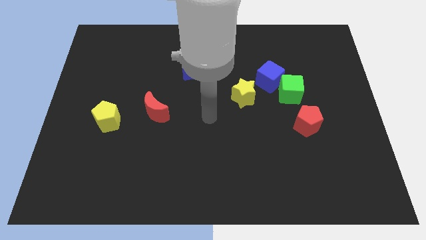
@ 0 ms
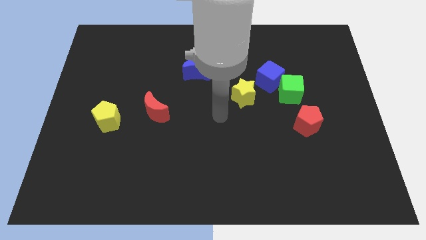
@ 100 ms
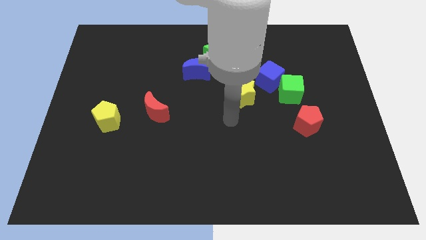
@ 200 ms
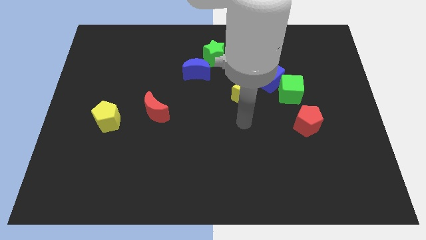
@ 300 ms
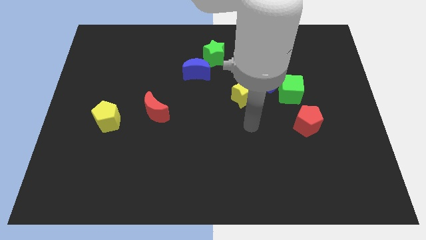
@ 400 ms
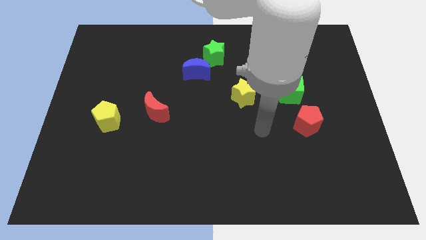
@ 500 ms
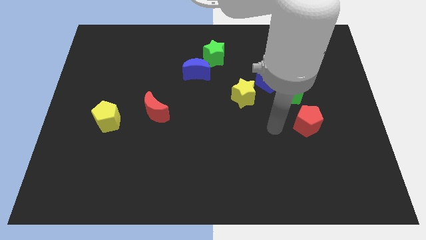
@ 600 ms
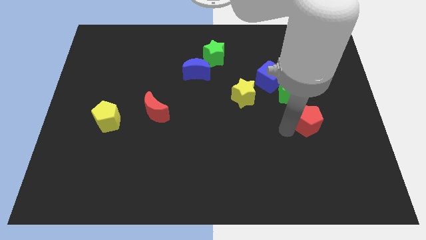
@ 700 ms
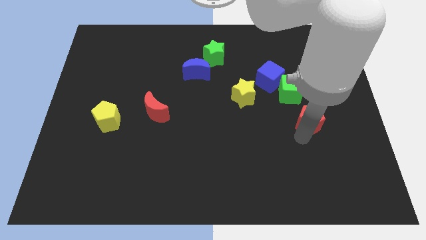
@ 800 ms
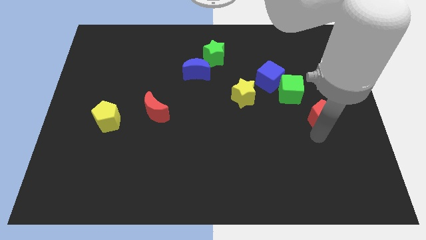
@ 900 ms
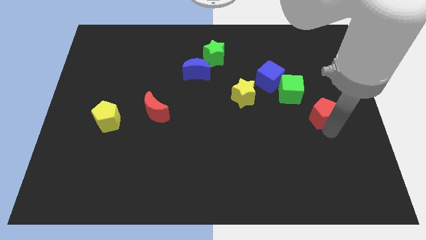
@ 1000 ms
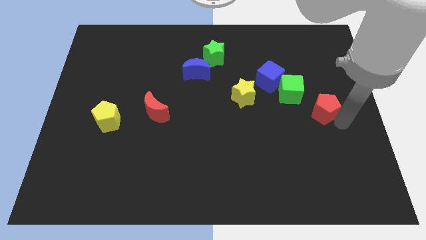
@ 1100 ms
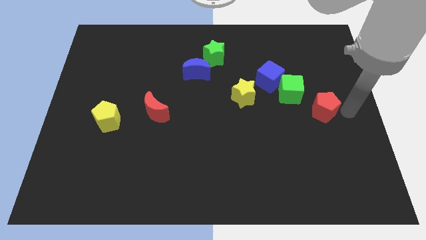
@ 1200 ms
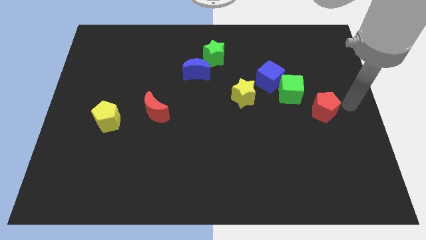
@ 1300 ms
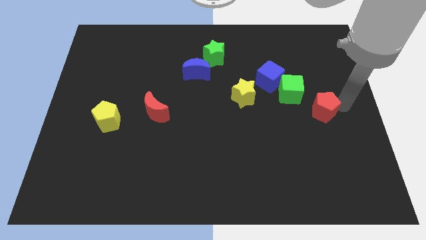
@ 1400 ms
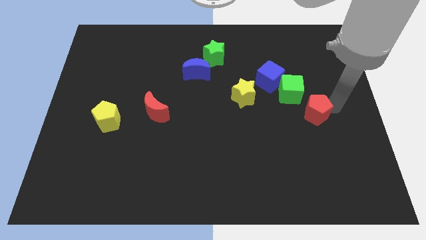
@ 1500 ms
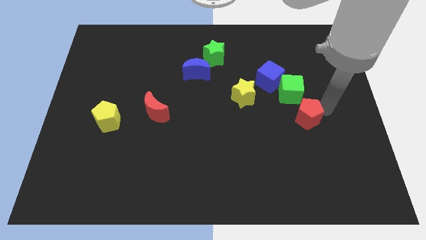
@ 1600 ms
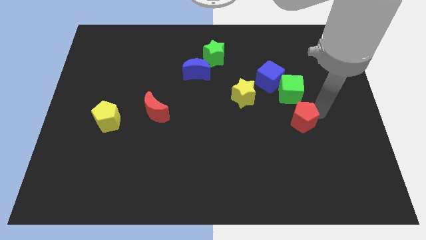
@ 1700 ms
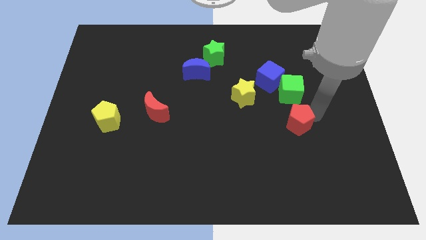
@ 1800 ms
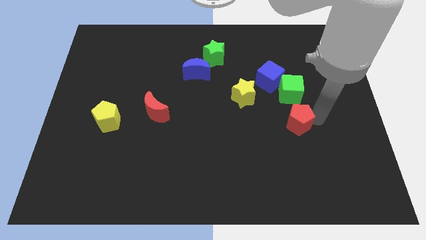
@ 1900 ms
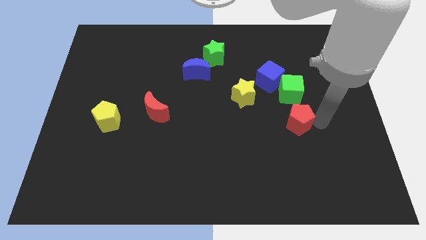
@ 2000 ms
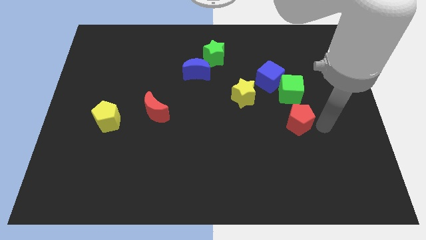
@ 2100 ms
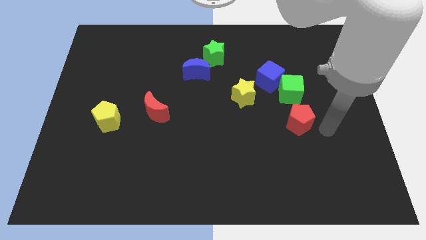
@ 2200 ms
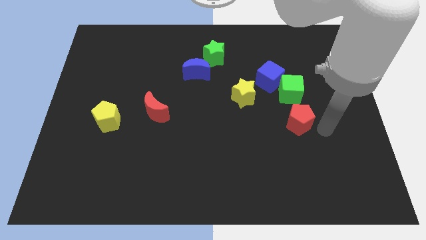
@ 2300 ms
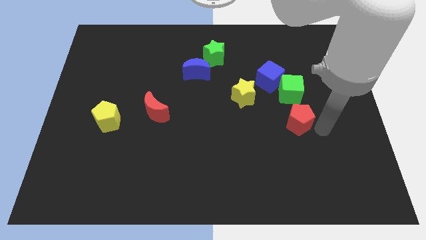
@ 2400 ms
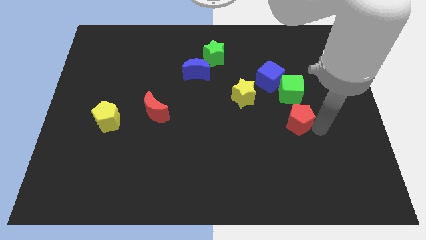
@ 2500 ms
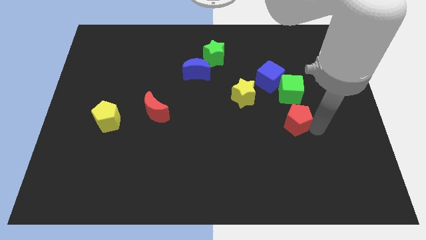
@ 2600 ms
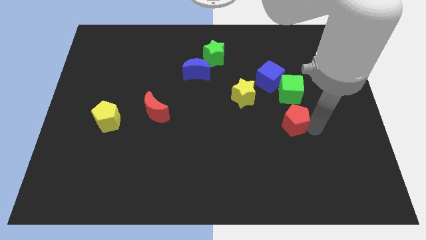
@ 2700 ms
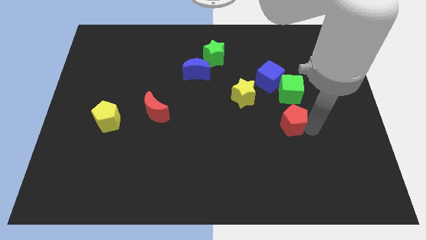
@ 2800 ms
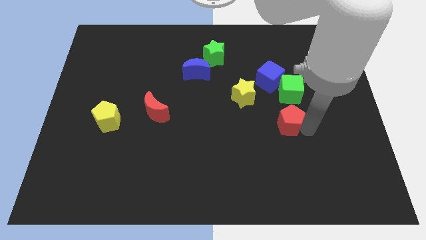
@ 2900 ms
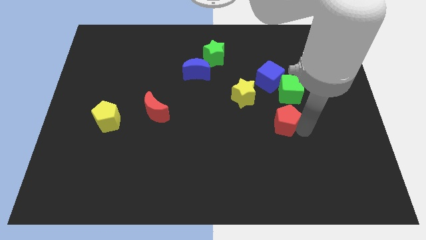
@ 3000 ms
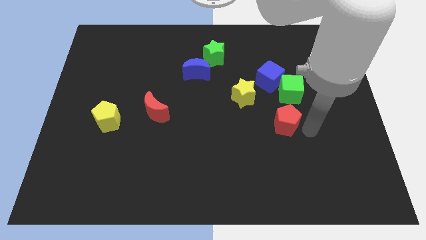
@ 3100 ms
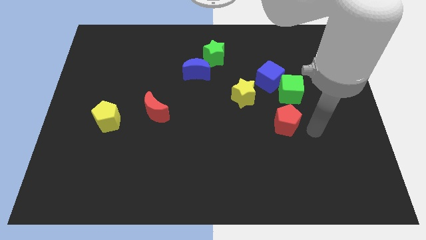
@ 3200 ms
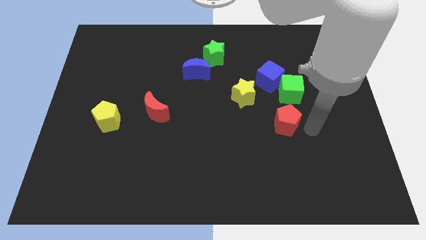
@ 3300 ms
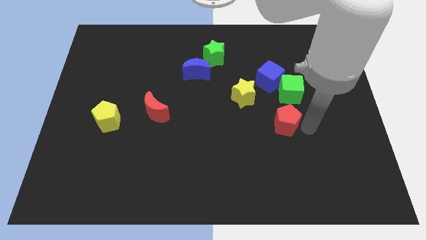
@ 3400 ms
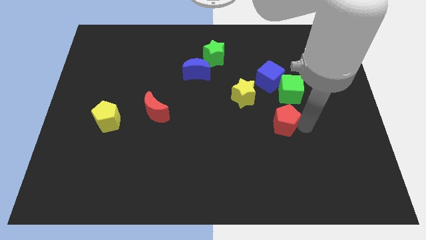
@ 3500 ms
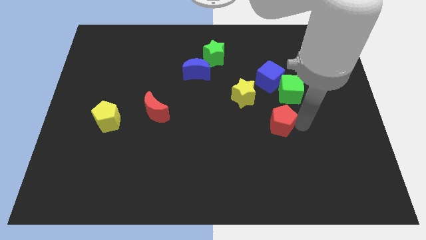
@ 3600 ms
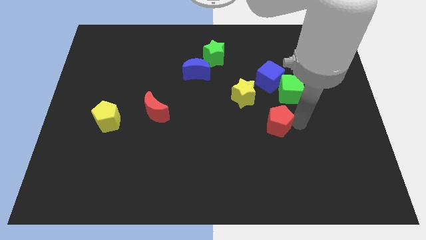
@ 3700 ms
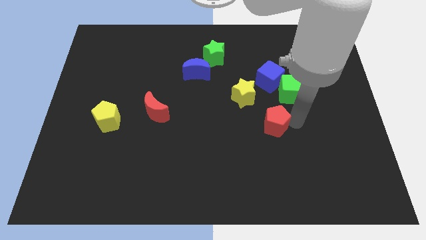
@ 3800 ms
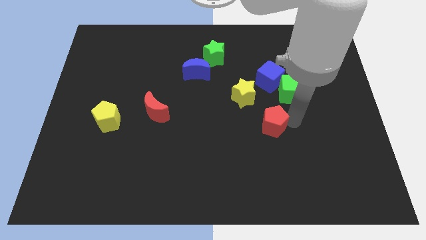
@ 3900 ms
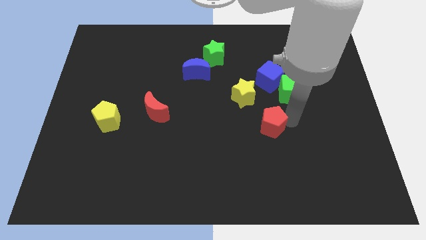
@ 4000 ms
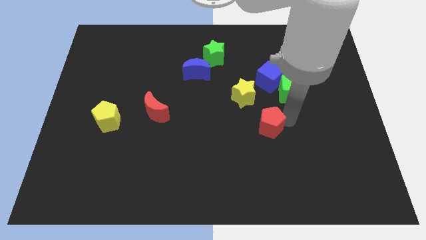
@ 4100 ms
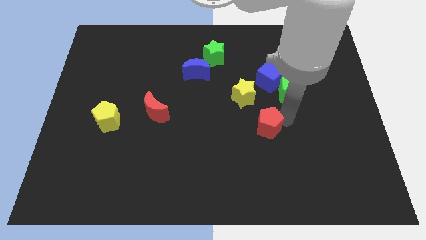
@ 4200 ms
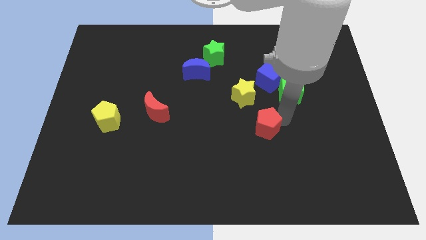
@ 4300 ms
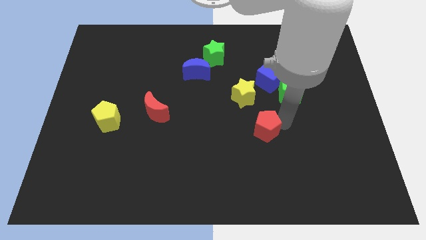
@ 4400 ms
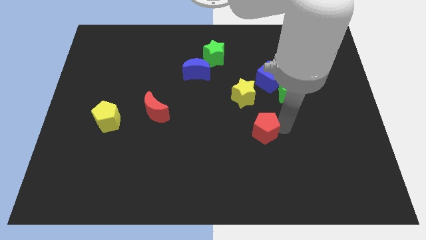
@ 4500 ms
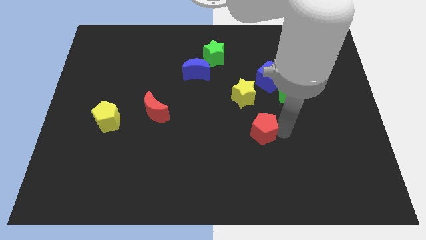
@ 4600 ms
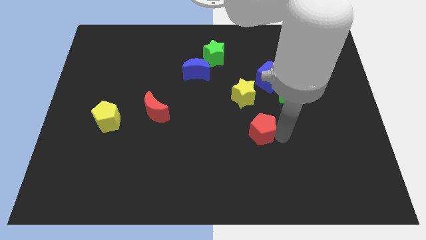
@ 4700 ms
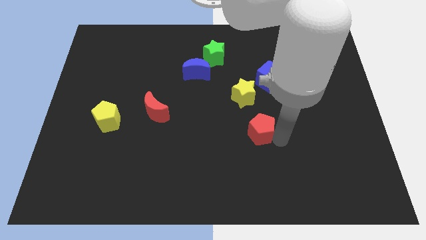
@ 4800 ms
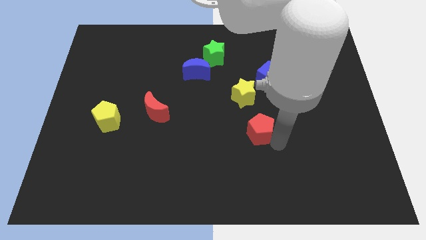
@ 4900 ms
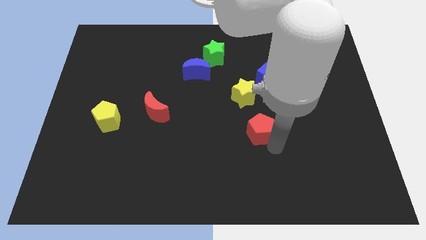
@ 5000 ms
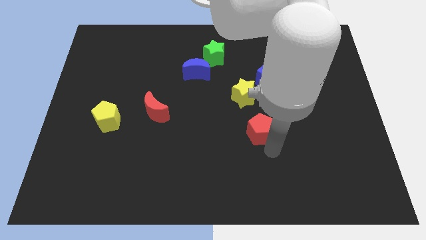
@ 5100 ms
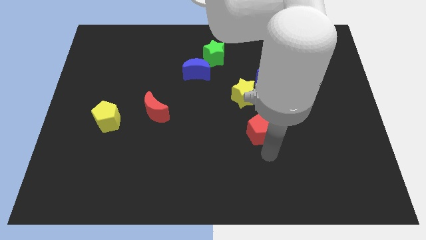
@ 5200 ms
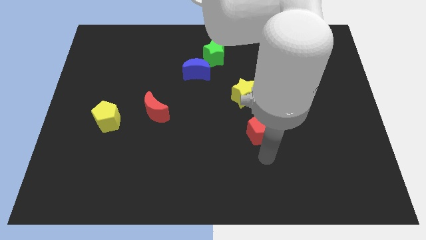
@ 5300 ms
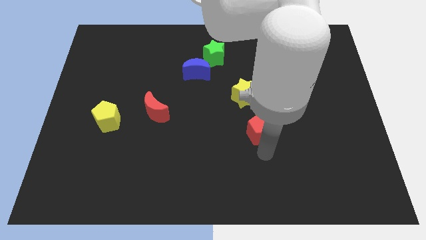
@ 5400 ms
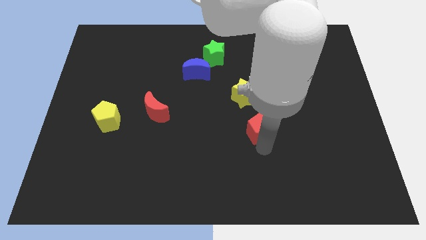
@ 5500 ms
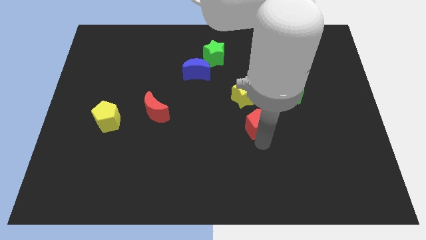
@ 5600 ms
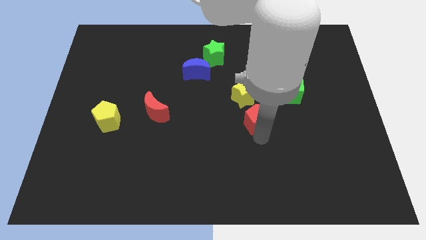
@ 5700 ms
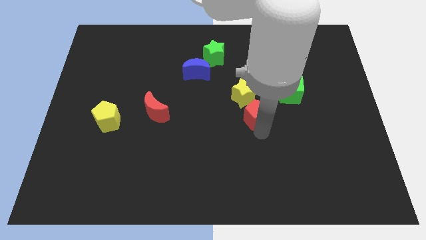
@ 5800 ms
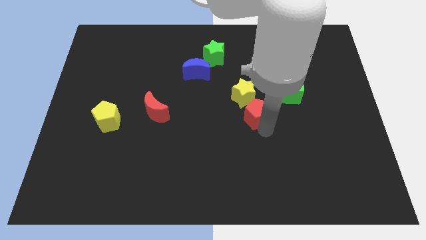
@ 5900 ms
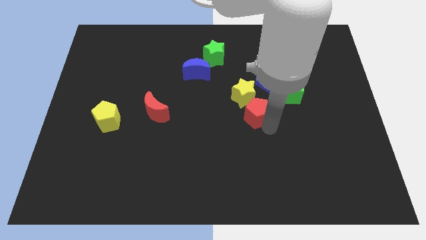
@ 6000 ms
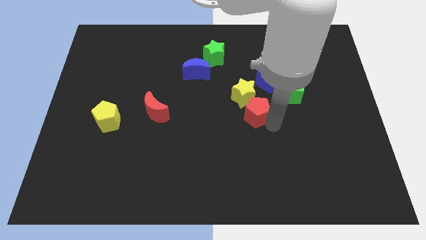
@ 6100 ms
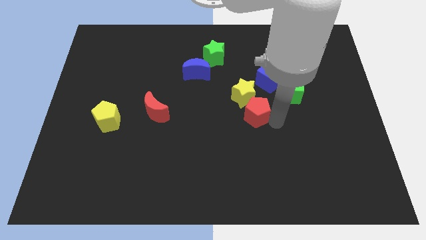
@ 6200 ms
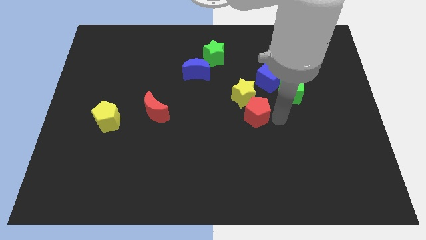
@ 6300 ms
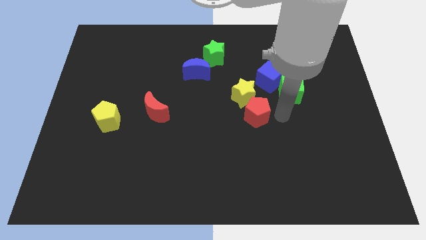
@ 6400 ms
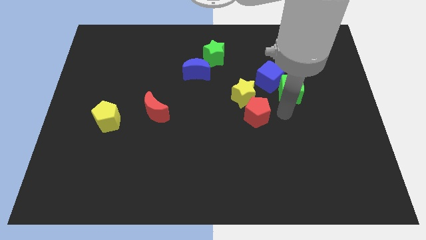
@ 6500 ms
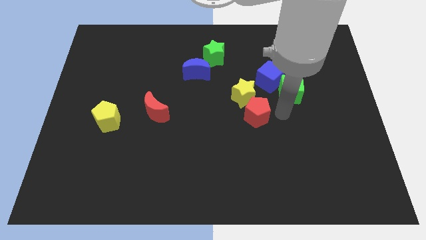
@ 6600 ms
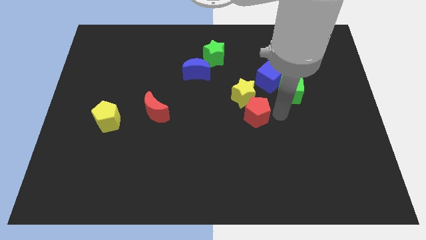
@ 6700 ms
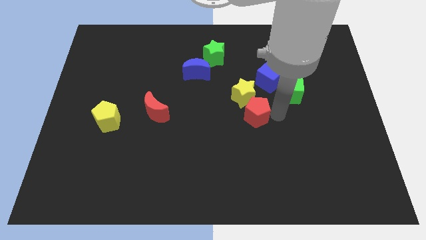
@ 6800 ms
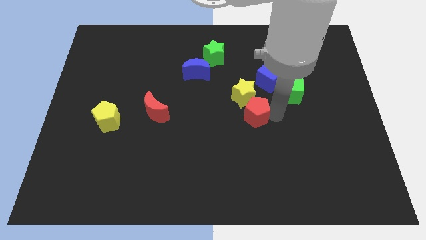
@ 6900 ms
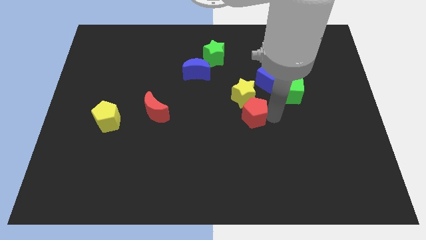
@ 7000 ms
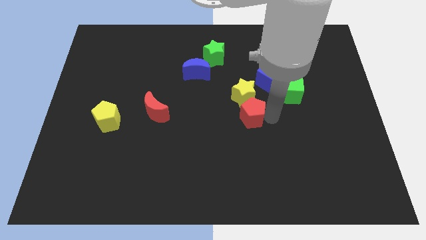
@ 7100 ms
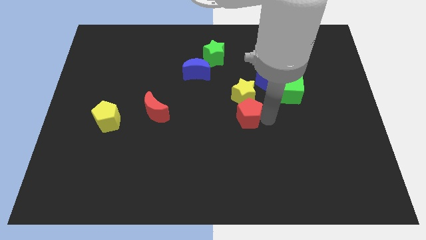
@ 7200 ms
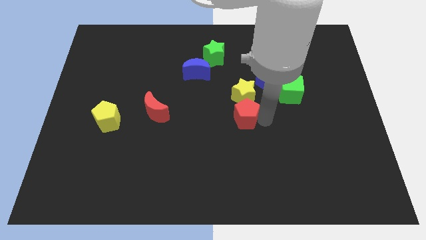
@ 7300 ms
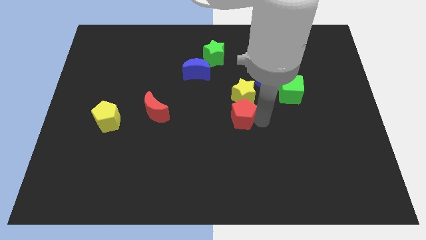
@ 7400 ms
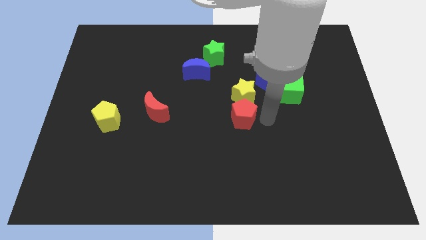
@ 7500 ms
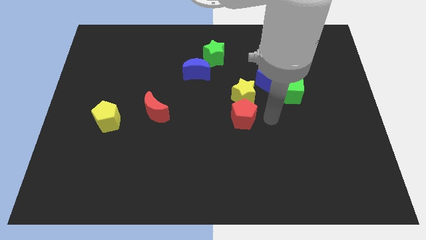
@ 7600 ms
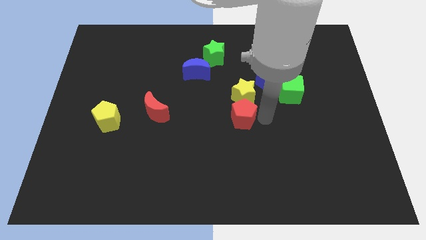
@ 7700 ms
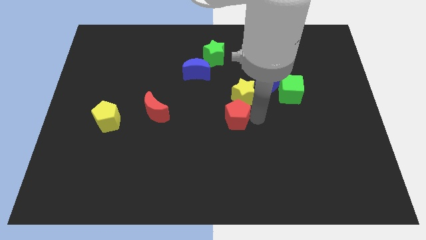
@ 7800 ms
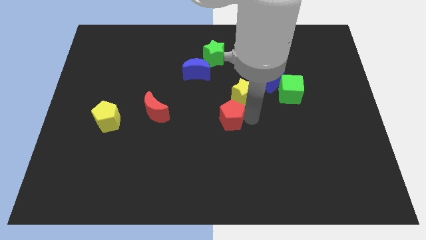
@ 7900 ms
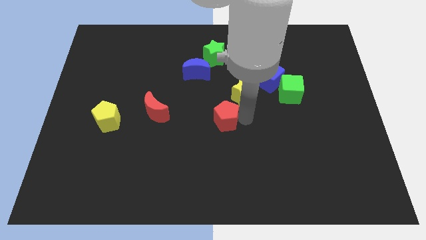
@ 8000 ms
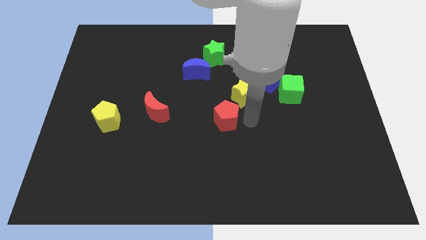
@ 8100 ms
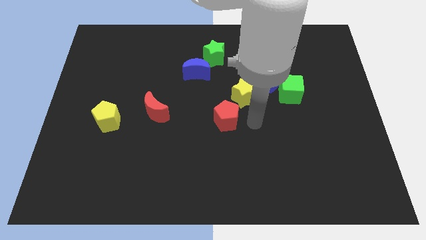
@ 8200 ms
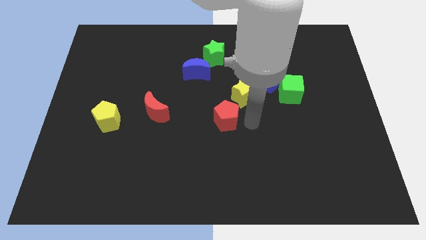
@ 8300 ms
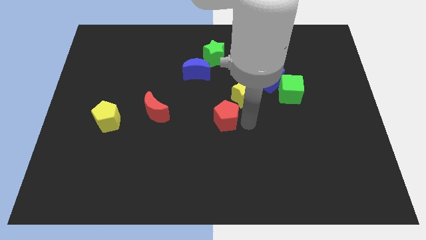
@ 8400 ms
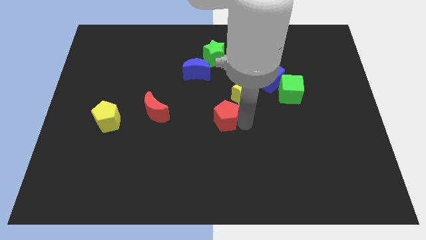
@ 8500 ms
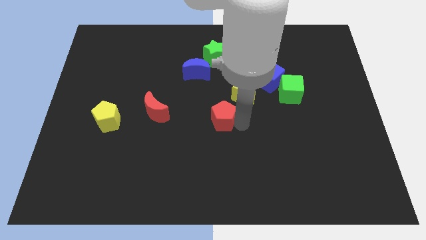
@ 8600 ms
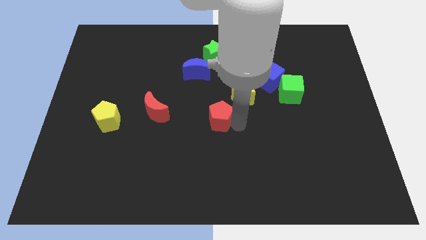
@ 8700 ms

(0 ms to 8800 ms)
slide the red pentagon to the left
